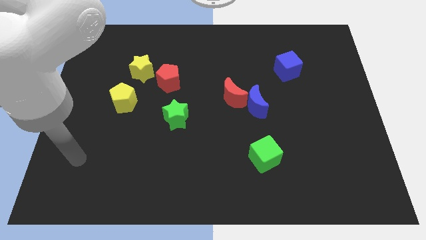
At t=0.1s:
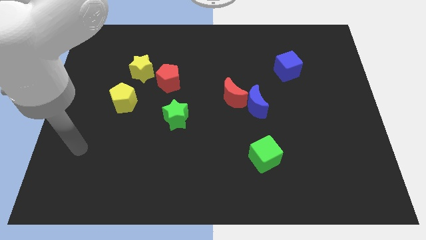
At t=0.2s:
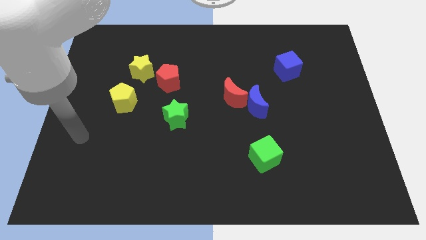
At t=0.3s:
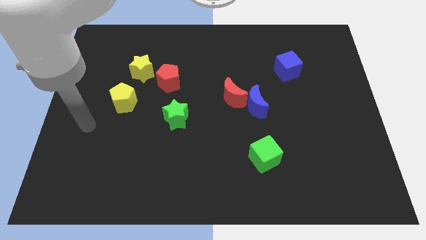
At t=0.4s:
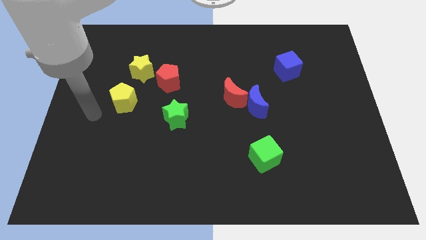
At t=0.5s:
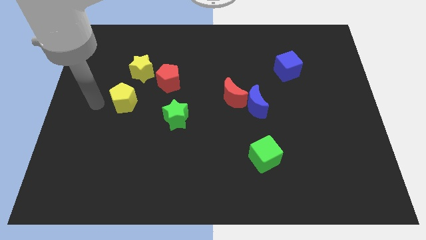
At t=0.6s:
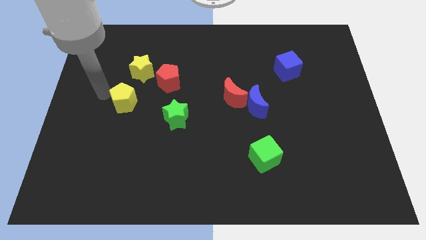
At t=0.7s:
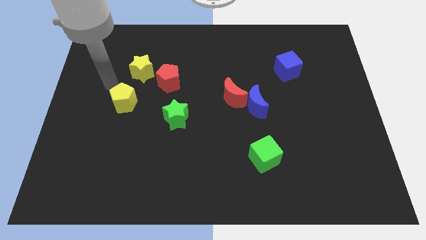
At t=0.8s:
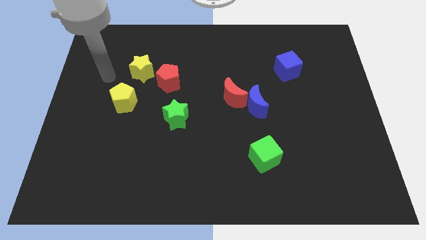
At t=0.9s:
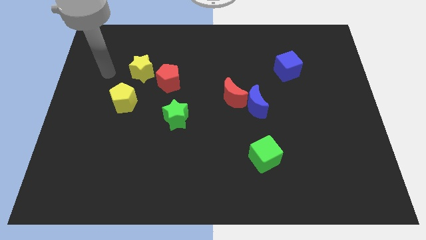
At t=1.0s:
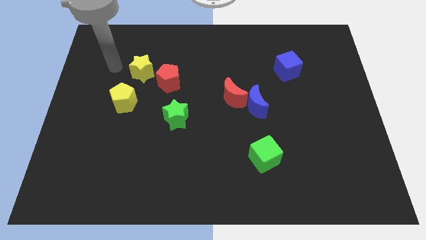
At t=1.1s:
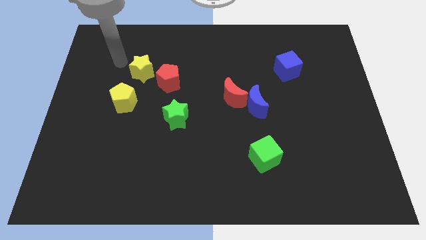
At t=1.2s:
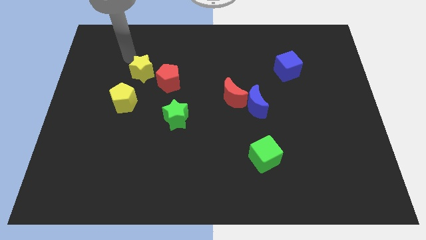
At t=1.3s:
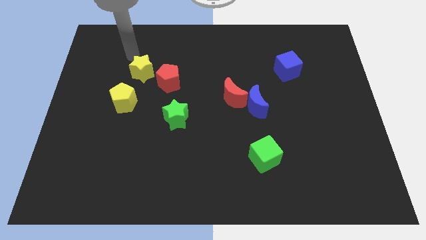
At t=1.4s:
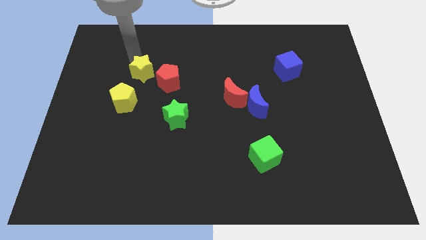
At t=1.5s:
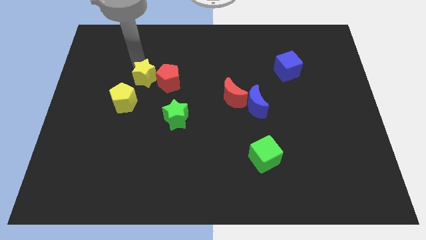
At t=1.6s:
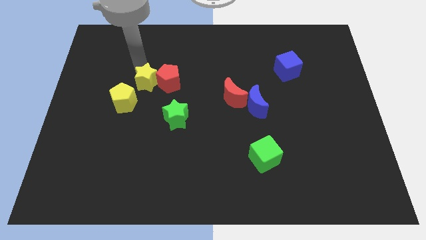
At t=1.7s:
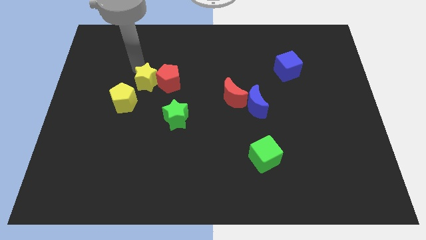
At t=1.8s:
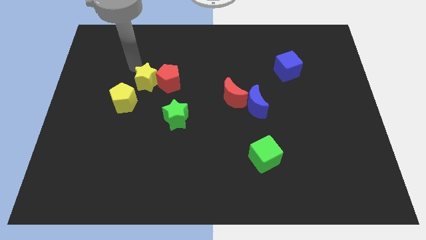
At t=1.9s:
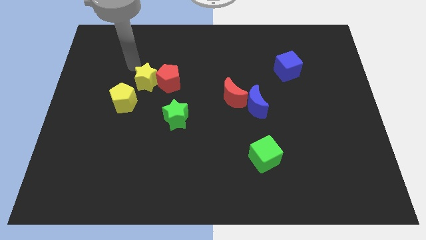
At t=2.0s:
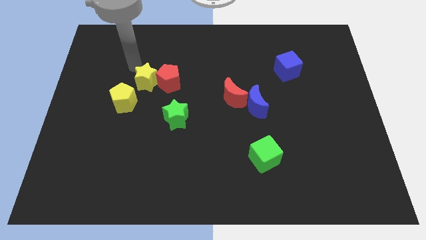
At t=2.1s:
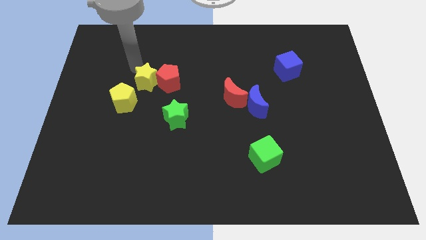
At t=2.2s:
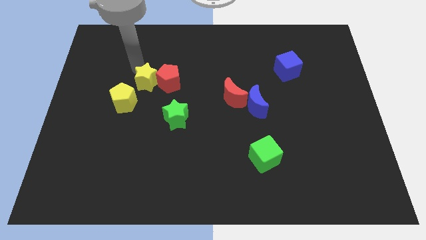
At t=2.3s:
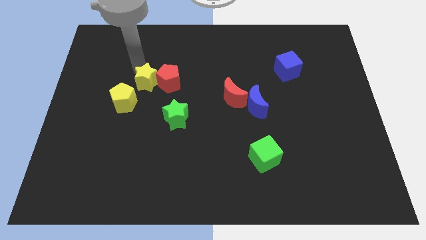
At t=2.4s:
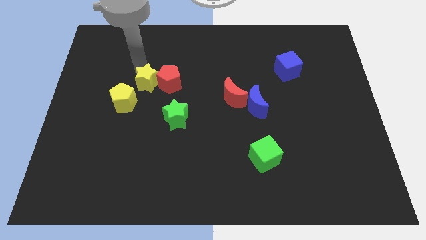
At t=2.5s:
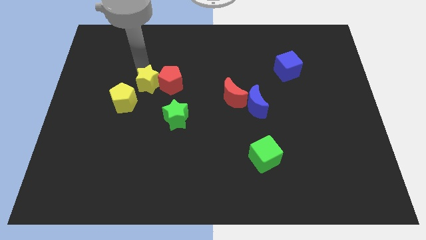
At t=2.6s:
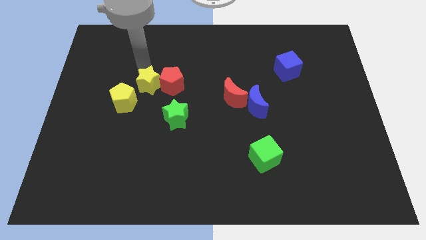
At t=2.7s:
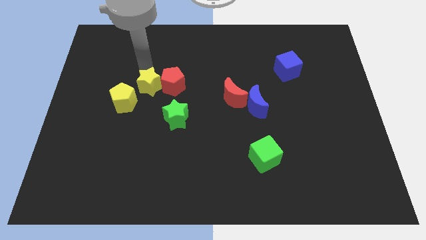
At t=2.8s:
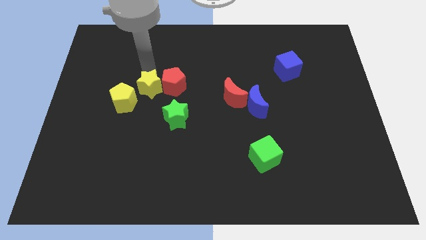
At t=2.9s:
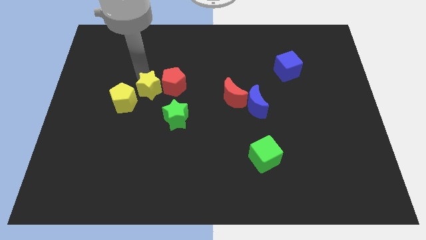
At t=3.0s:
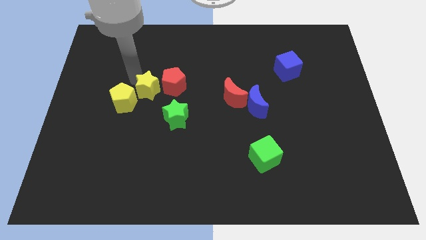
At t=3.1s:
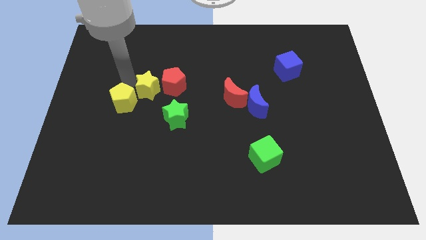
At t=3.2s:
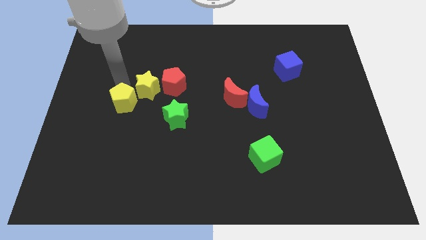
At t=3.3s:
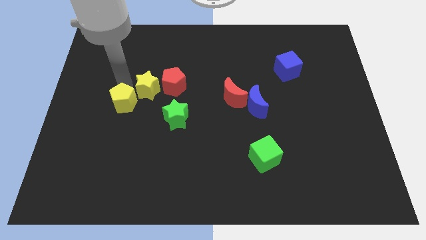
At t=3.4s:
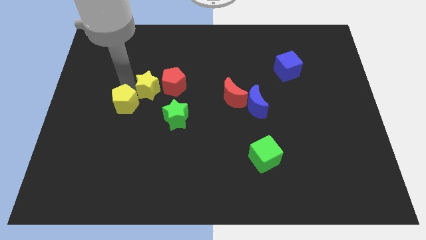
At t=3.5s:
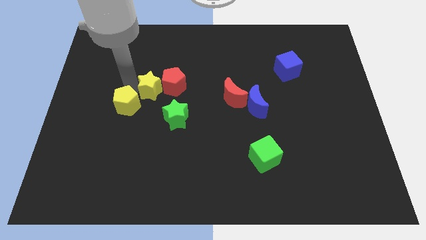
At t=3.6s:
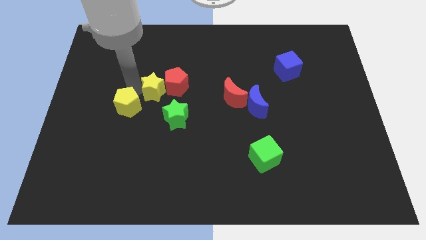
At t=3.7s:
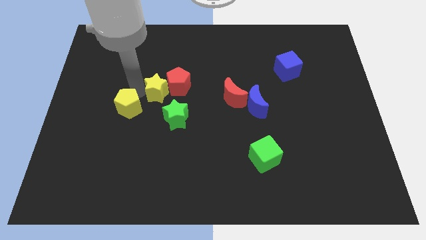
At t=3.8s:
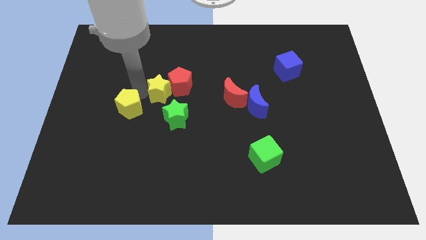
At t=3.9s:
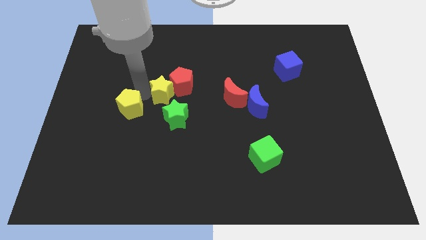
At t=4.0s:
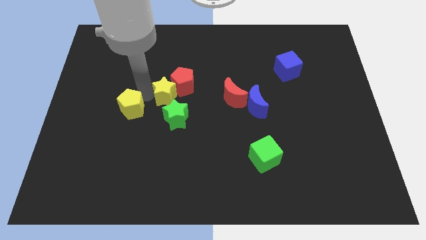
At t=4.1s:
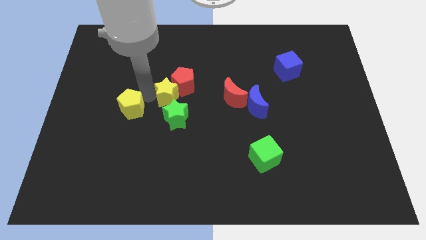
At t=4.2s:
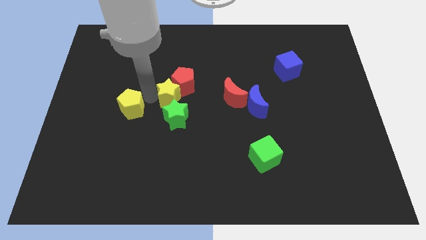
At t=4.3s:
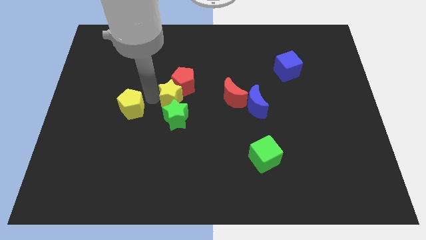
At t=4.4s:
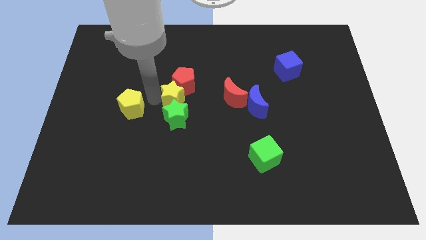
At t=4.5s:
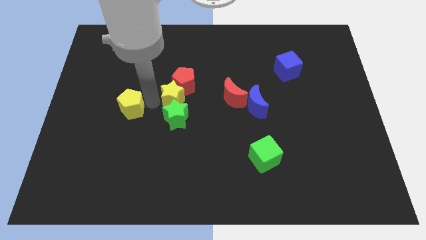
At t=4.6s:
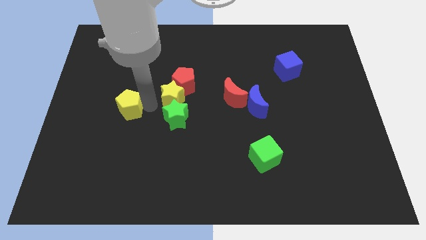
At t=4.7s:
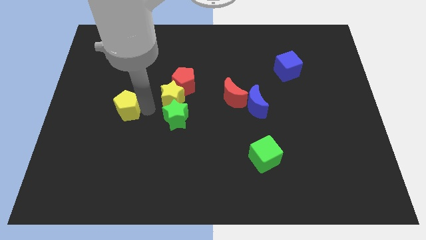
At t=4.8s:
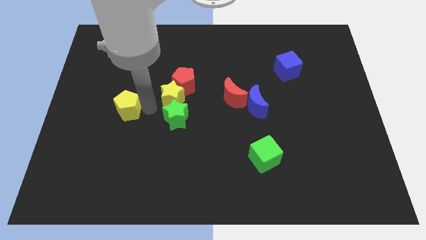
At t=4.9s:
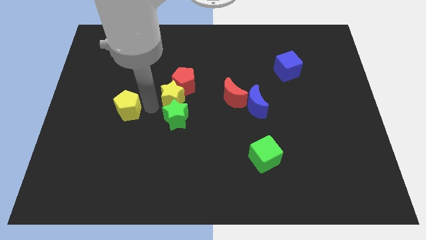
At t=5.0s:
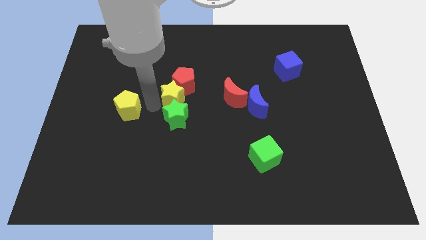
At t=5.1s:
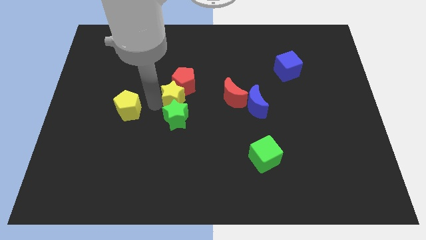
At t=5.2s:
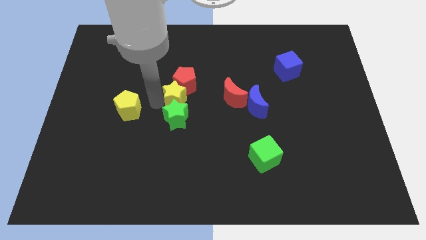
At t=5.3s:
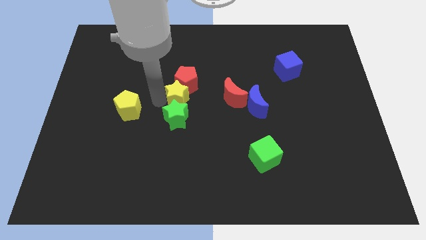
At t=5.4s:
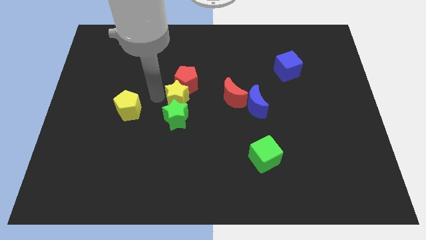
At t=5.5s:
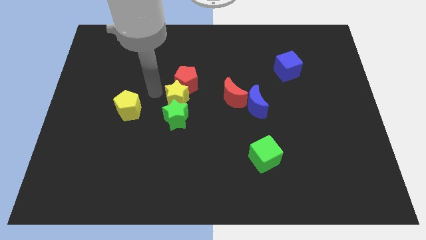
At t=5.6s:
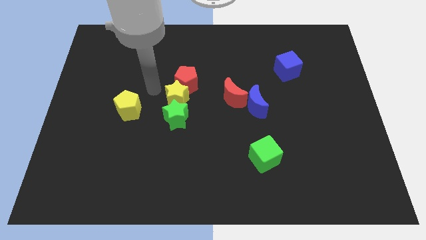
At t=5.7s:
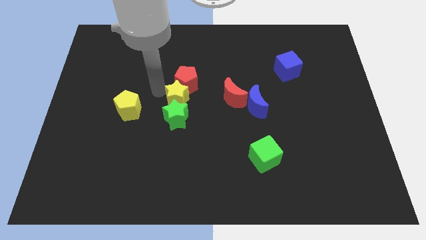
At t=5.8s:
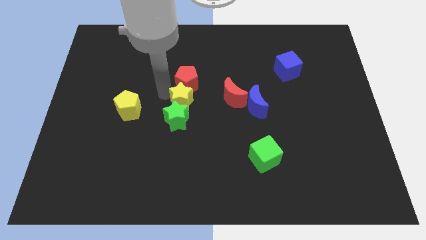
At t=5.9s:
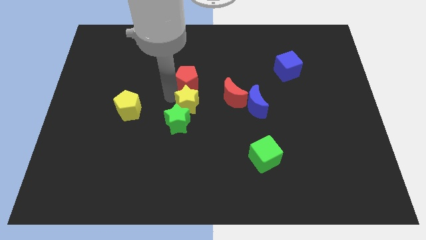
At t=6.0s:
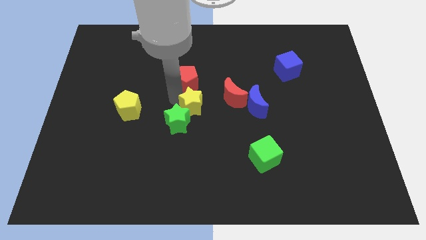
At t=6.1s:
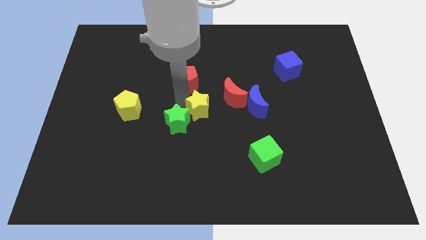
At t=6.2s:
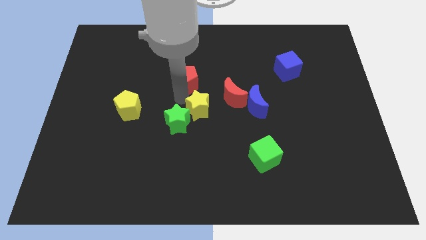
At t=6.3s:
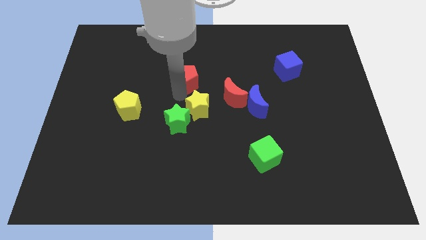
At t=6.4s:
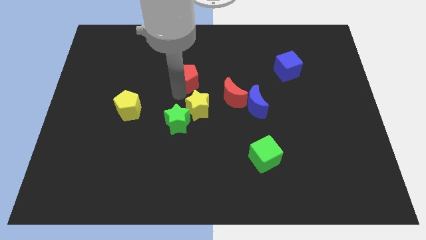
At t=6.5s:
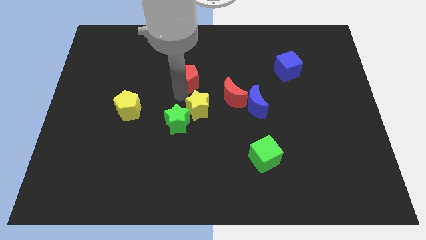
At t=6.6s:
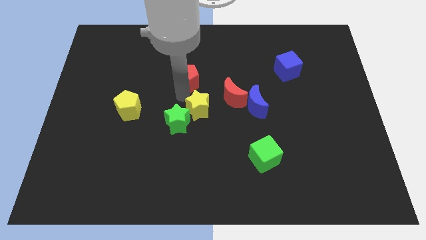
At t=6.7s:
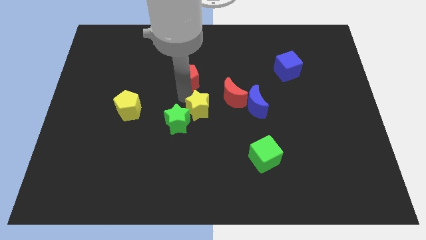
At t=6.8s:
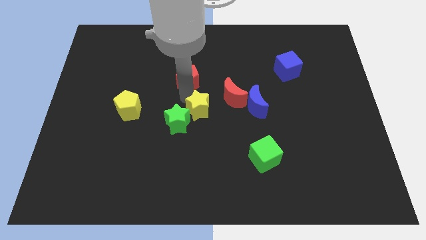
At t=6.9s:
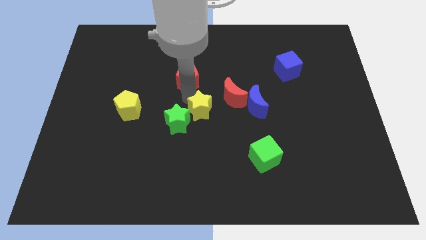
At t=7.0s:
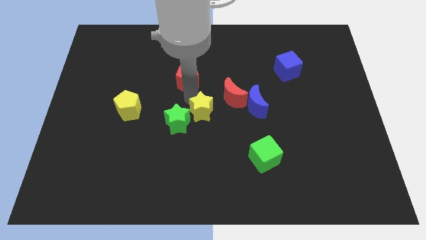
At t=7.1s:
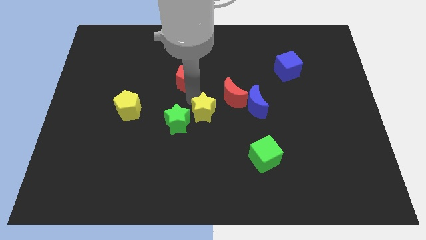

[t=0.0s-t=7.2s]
move the yellow star downwards and then to the right

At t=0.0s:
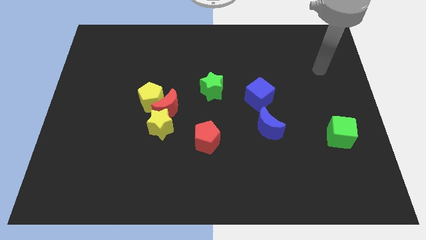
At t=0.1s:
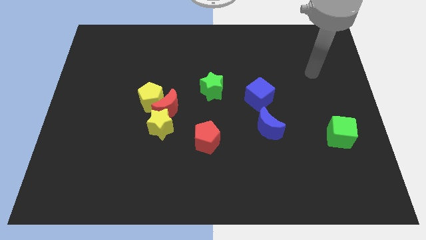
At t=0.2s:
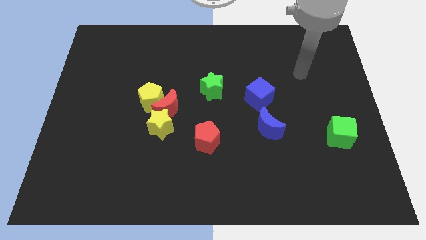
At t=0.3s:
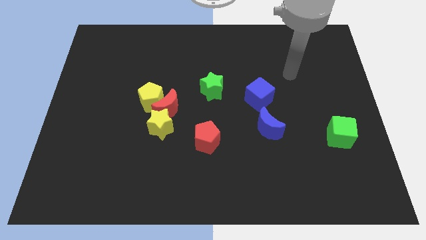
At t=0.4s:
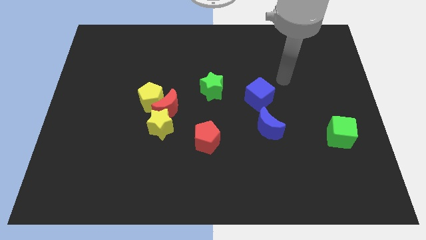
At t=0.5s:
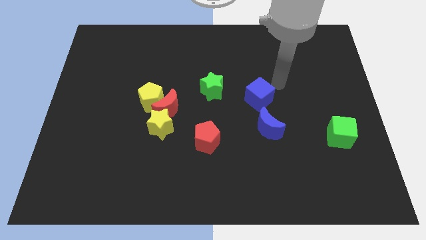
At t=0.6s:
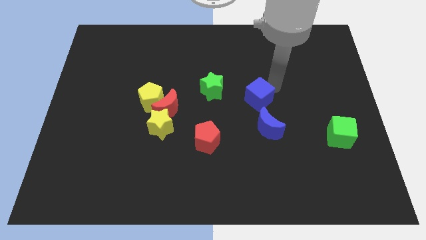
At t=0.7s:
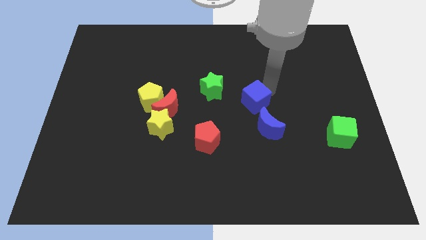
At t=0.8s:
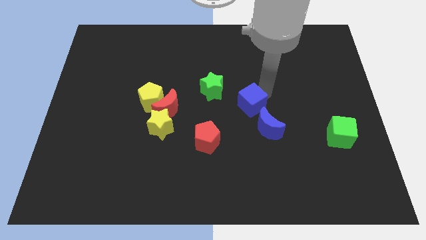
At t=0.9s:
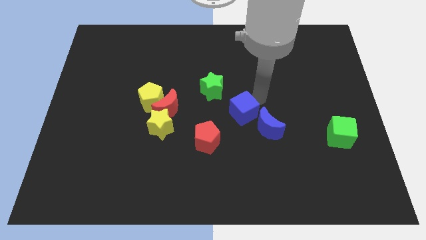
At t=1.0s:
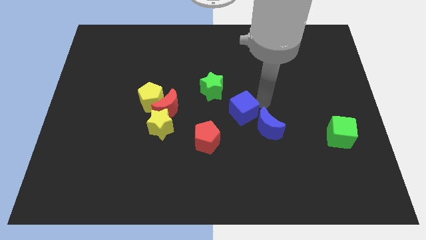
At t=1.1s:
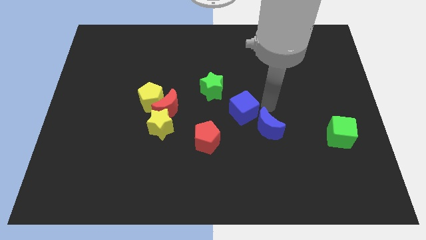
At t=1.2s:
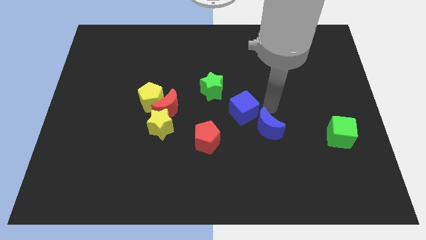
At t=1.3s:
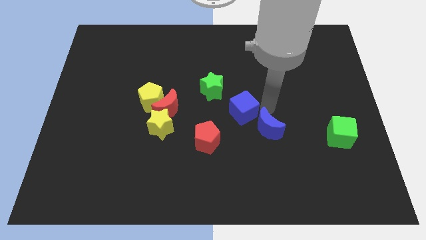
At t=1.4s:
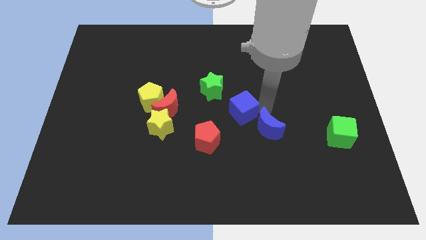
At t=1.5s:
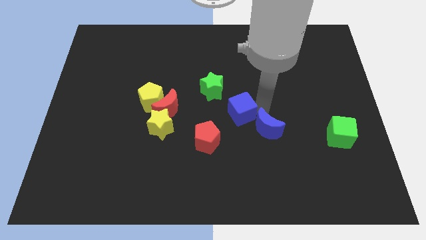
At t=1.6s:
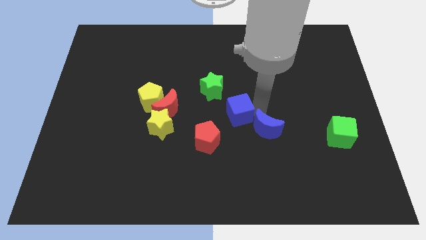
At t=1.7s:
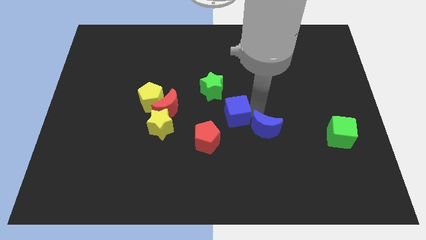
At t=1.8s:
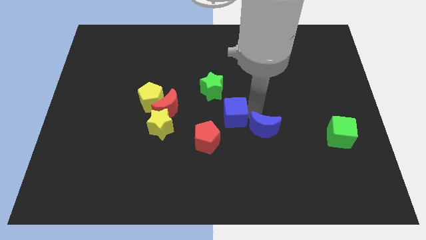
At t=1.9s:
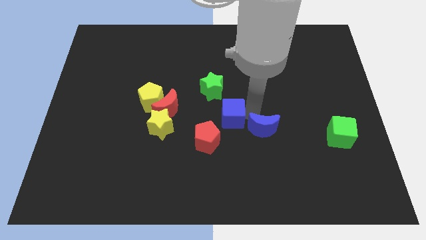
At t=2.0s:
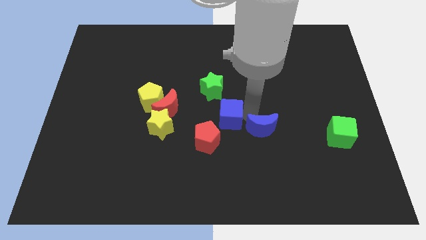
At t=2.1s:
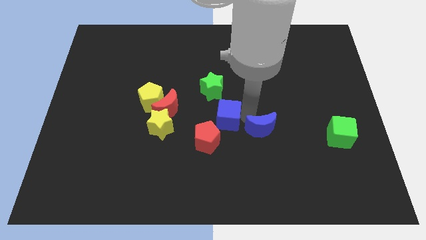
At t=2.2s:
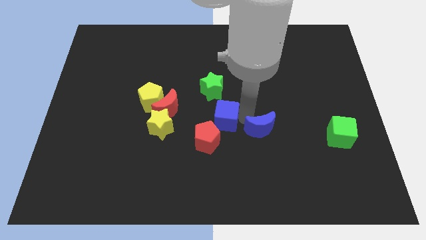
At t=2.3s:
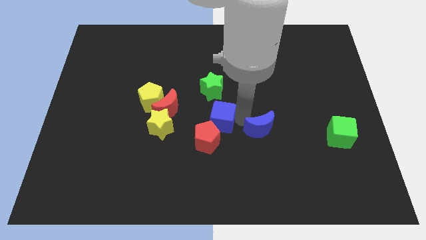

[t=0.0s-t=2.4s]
slide the blue cube to the left slightly
